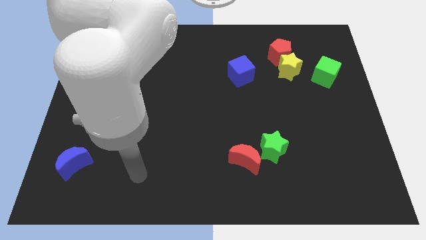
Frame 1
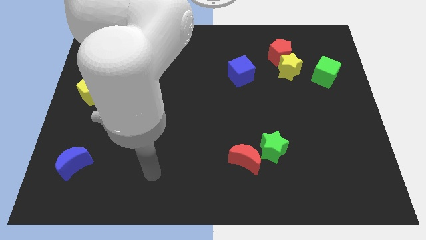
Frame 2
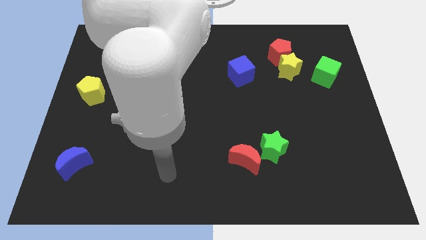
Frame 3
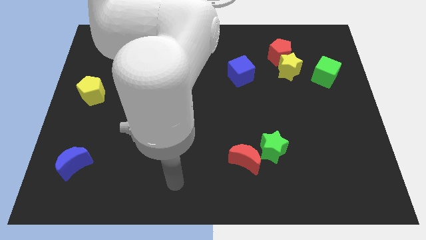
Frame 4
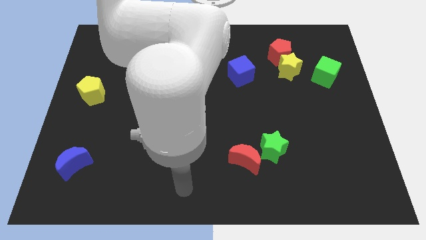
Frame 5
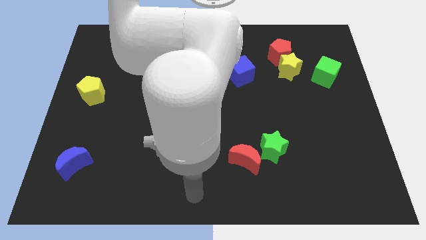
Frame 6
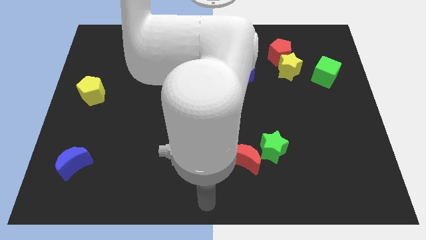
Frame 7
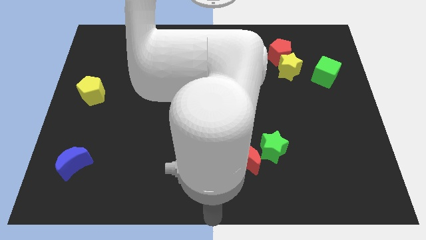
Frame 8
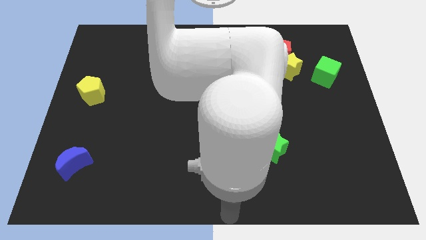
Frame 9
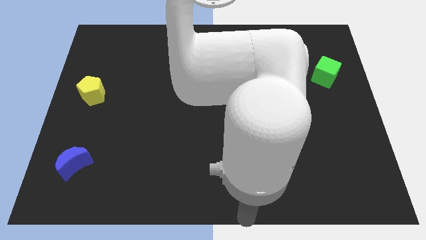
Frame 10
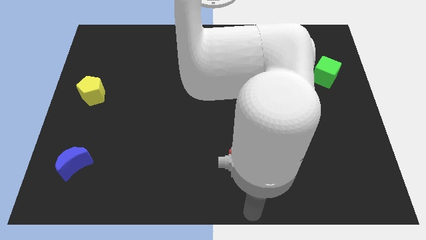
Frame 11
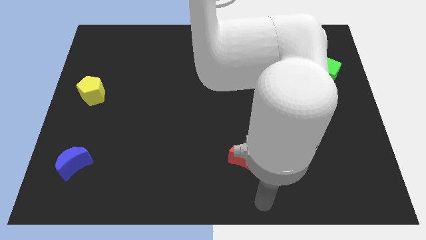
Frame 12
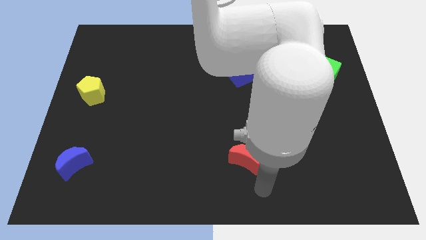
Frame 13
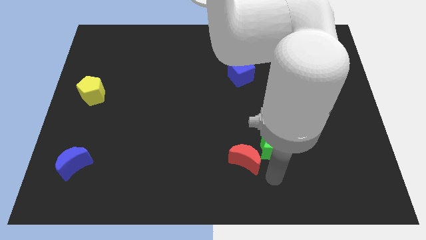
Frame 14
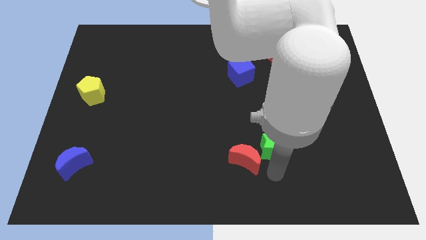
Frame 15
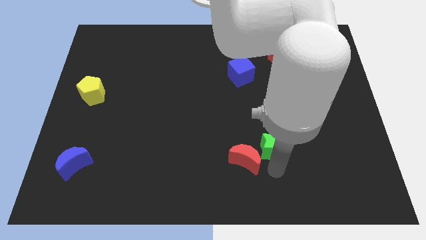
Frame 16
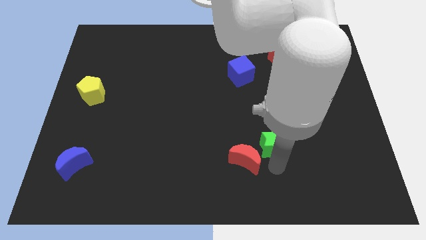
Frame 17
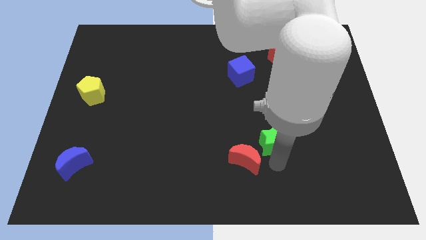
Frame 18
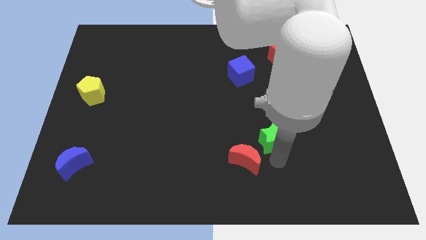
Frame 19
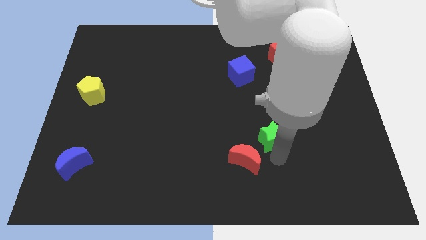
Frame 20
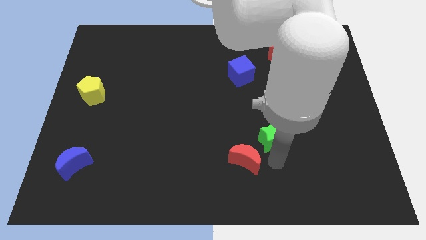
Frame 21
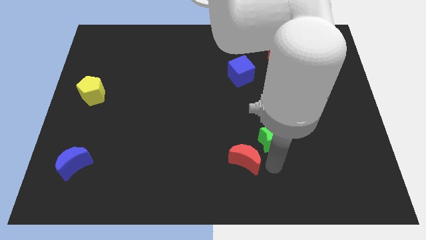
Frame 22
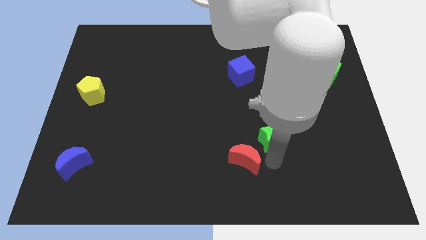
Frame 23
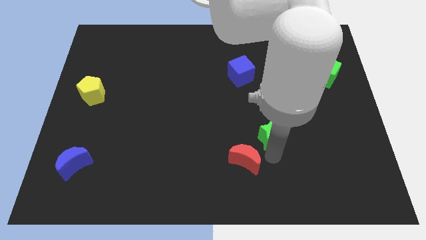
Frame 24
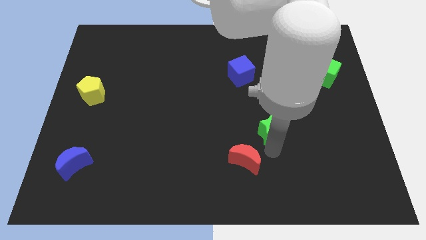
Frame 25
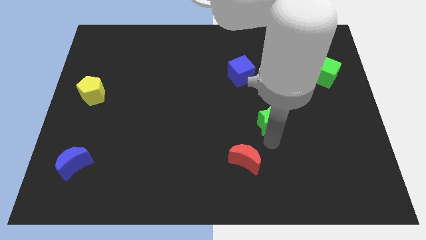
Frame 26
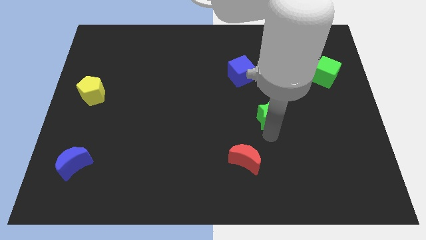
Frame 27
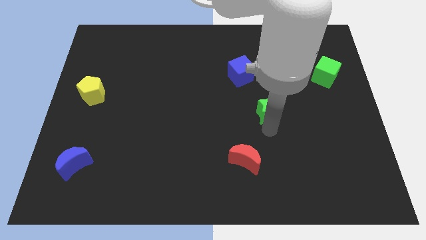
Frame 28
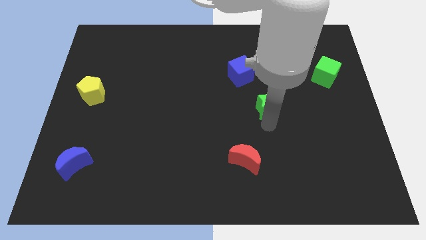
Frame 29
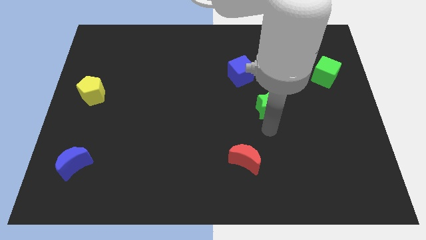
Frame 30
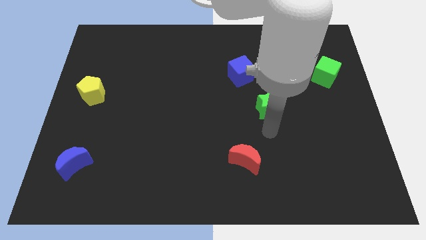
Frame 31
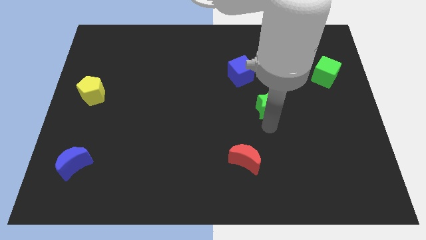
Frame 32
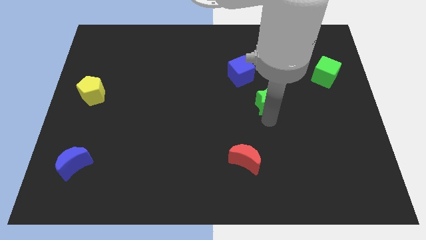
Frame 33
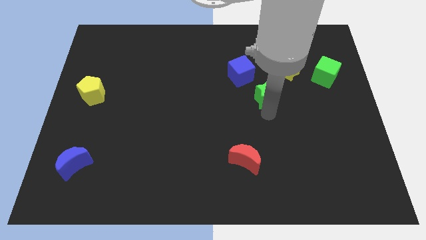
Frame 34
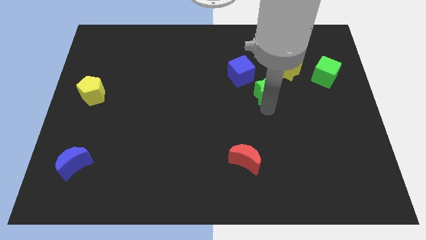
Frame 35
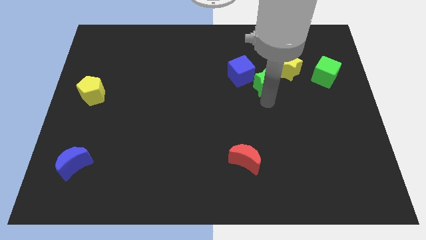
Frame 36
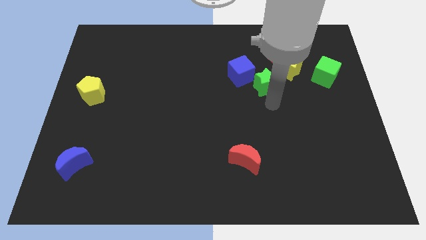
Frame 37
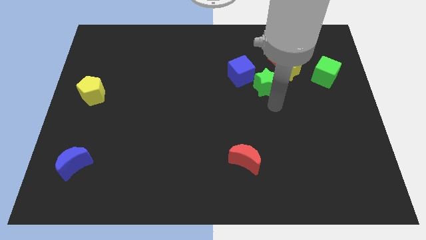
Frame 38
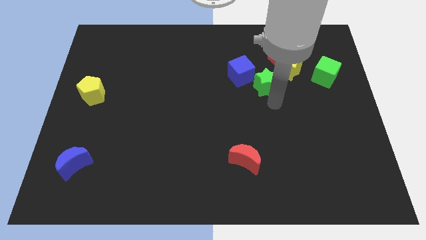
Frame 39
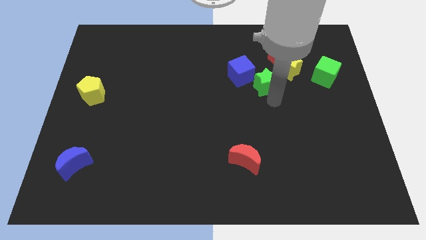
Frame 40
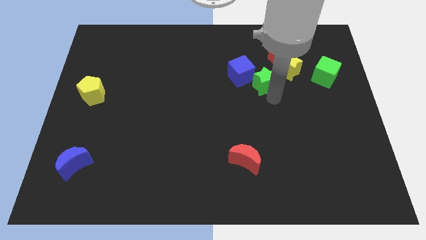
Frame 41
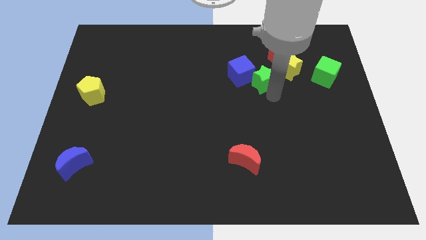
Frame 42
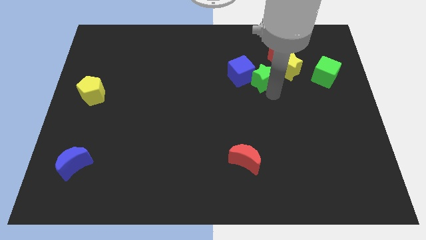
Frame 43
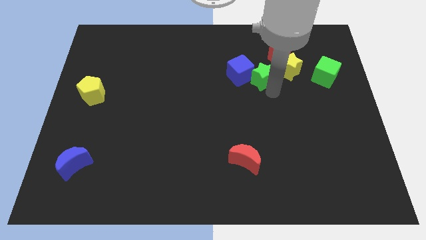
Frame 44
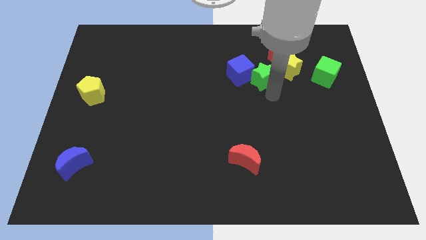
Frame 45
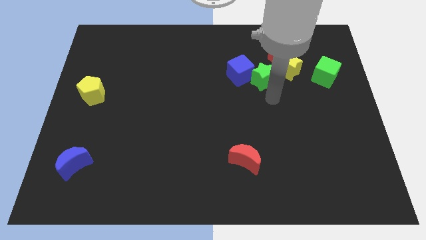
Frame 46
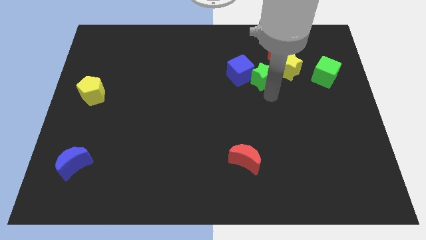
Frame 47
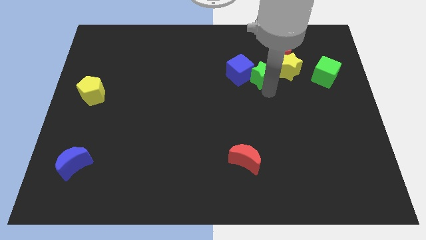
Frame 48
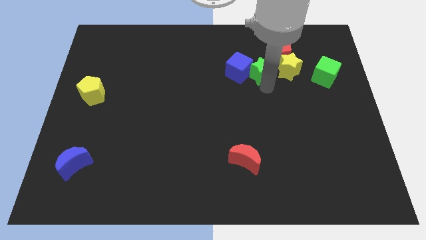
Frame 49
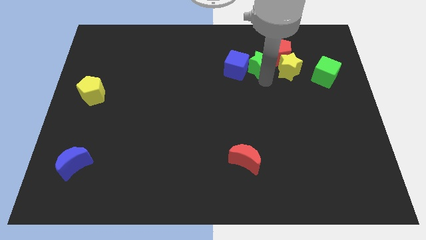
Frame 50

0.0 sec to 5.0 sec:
move the green star to the left side of the red pentagon

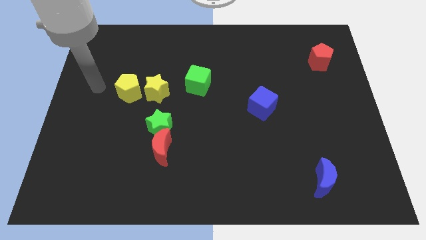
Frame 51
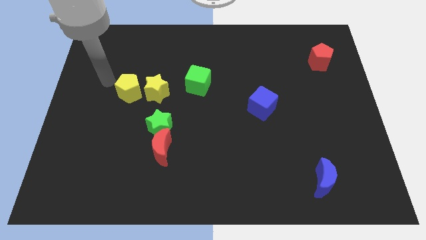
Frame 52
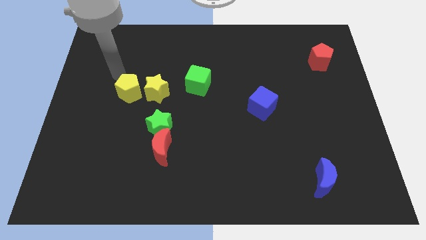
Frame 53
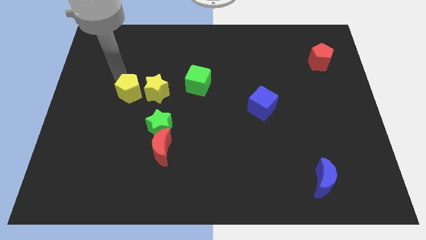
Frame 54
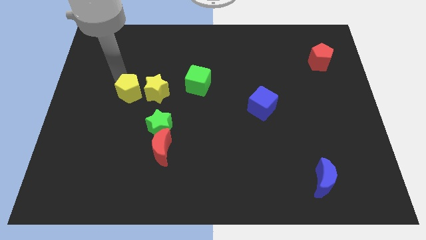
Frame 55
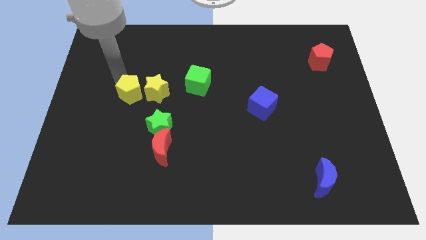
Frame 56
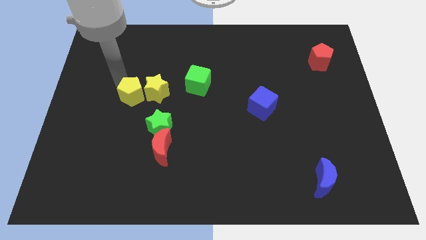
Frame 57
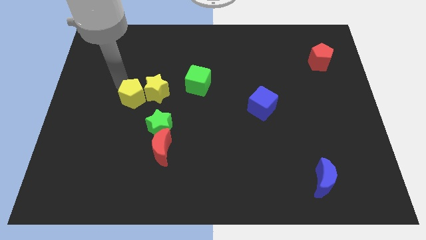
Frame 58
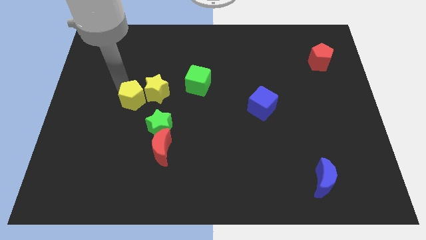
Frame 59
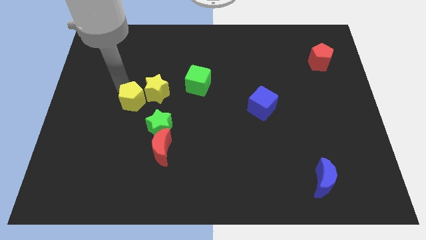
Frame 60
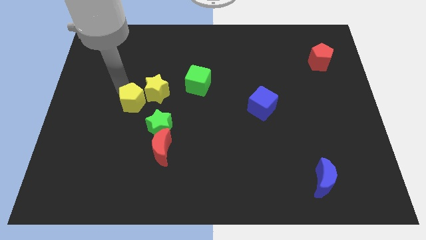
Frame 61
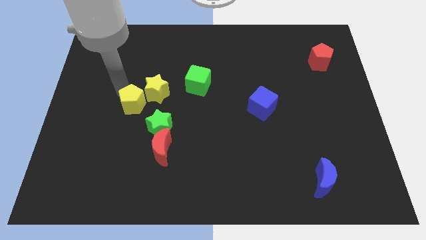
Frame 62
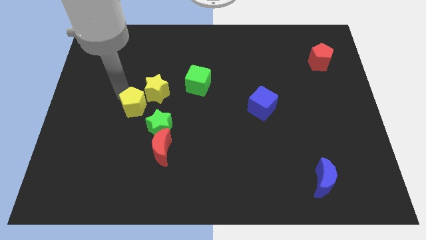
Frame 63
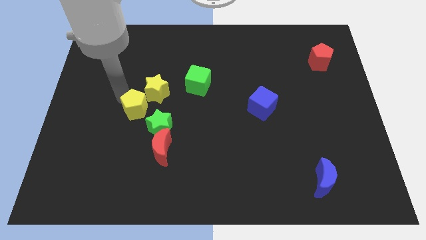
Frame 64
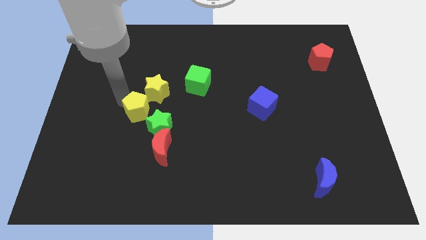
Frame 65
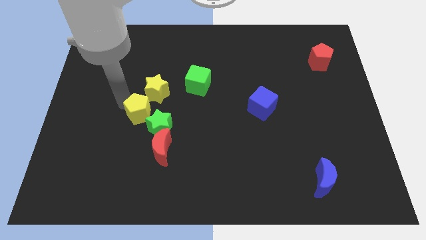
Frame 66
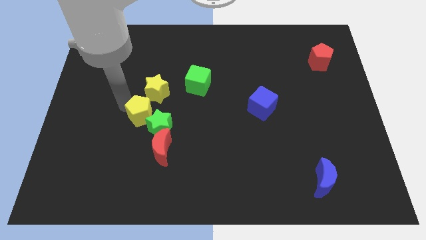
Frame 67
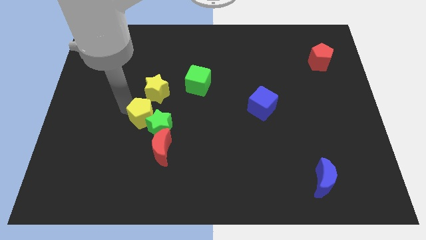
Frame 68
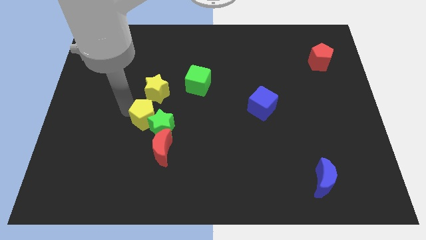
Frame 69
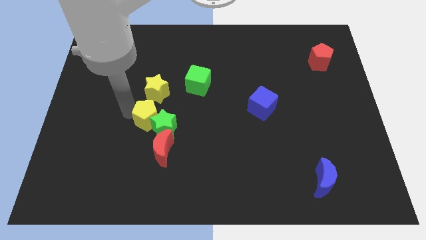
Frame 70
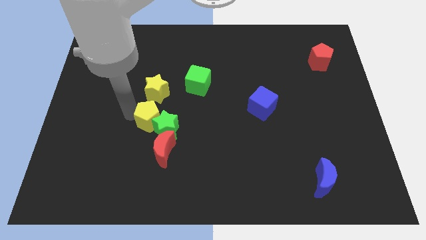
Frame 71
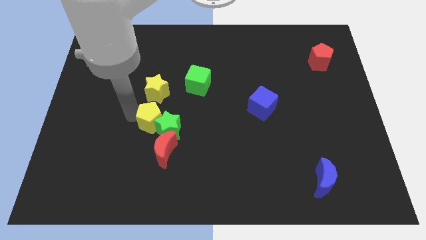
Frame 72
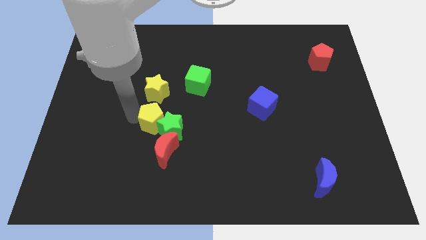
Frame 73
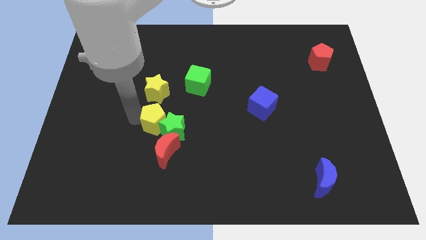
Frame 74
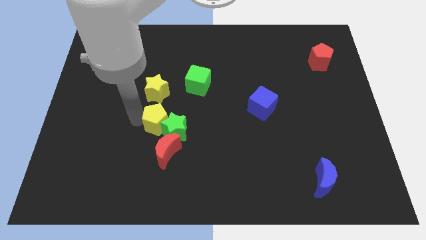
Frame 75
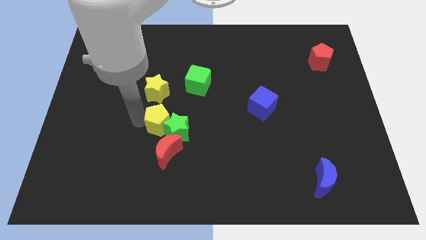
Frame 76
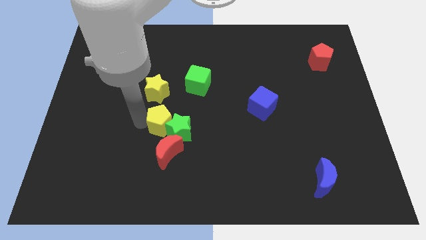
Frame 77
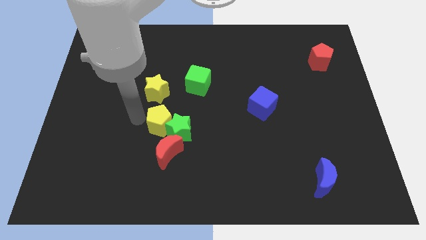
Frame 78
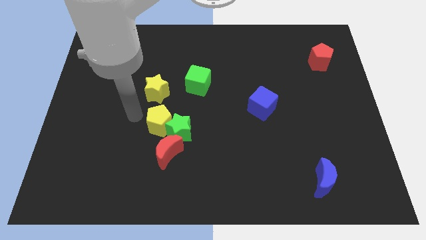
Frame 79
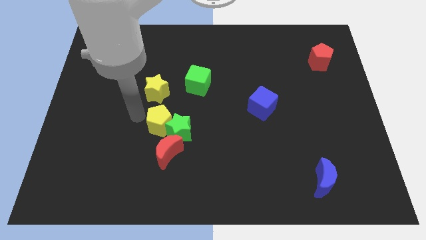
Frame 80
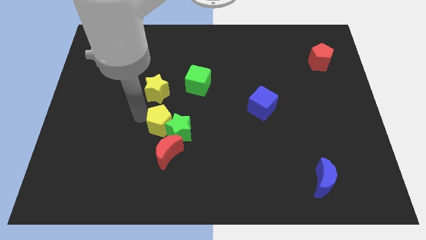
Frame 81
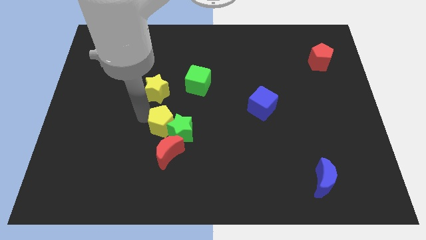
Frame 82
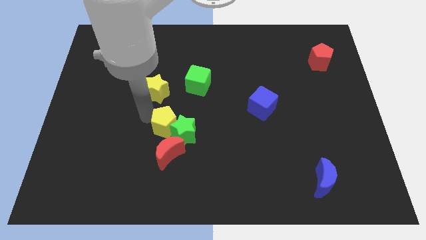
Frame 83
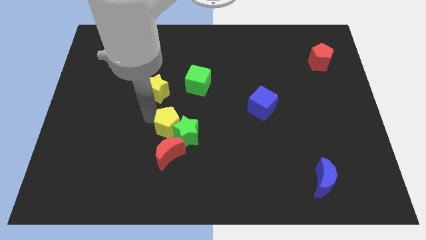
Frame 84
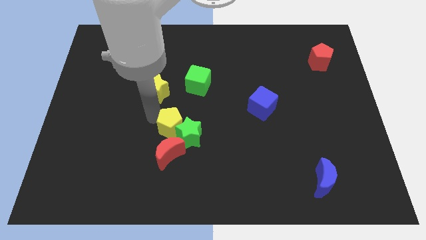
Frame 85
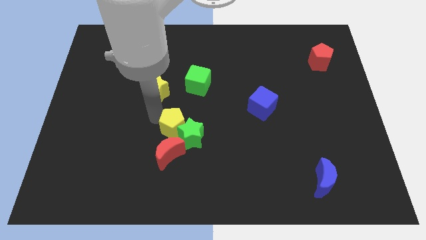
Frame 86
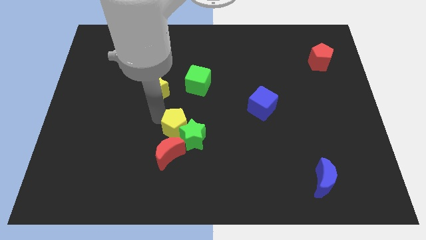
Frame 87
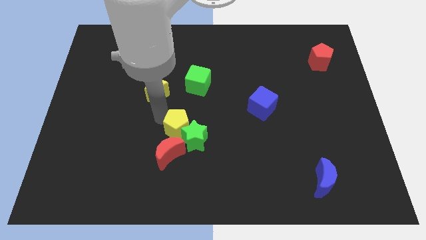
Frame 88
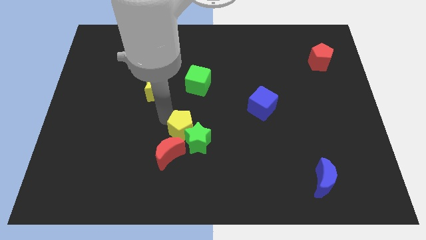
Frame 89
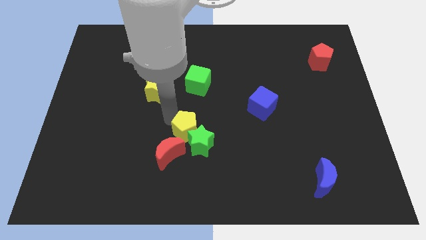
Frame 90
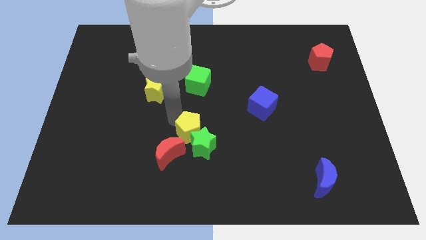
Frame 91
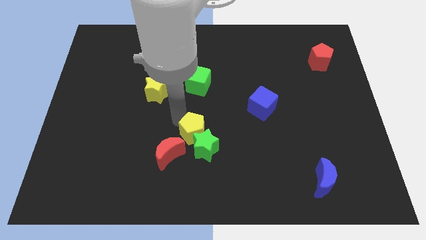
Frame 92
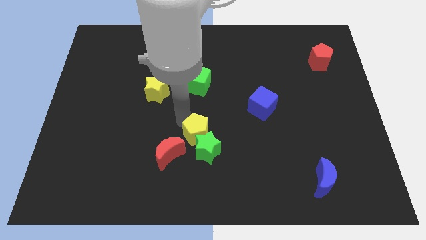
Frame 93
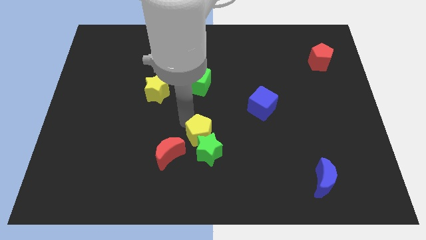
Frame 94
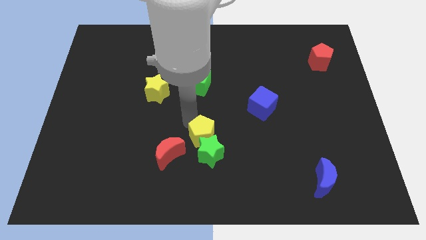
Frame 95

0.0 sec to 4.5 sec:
slide the yellow pentagon right of the red moon
